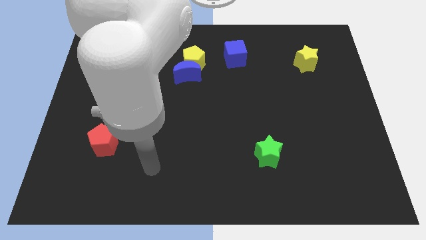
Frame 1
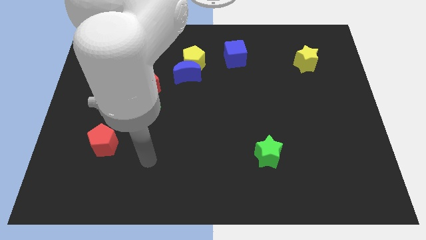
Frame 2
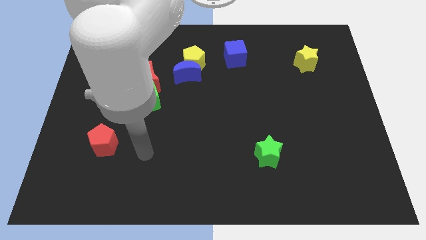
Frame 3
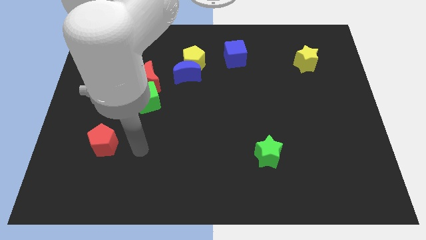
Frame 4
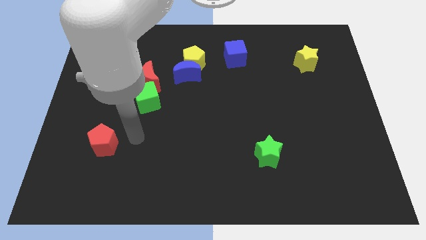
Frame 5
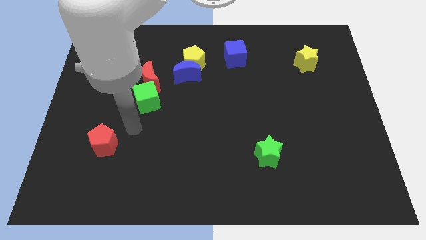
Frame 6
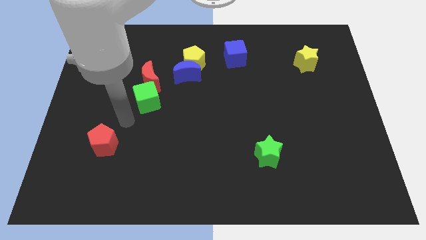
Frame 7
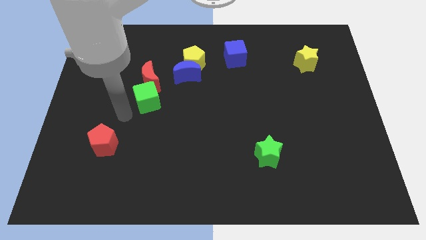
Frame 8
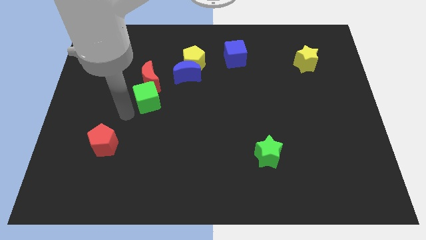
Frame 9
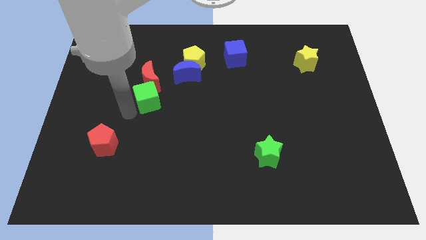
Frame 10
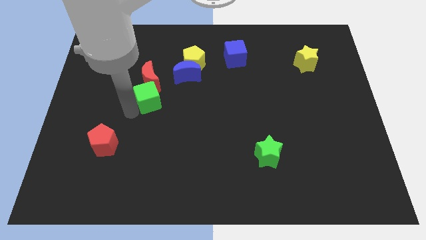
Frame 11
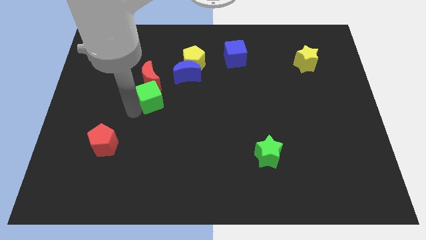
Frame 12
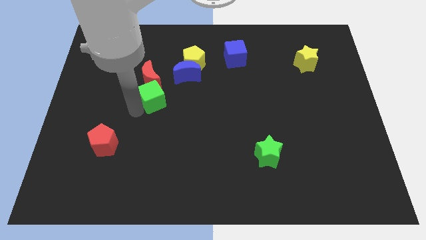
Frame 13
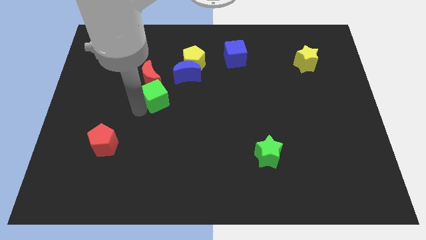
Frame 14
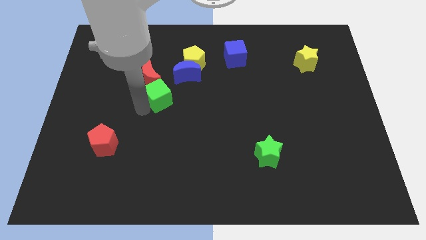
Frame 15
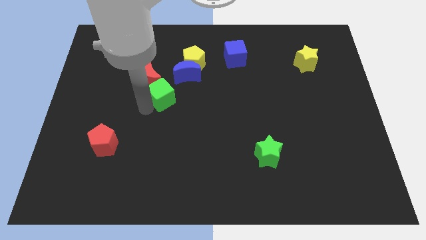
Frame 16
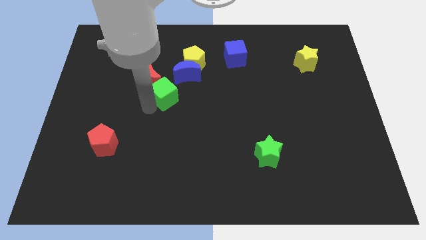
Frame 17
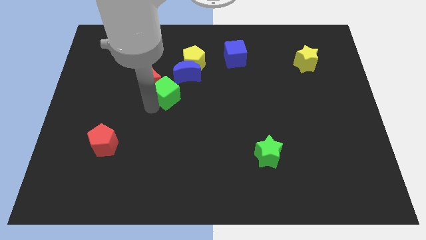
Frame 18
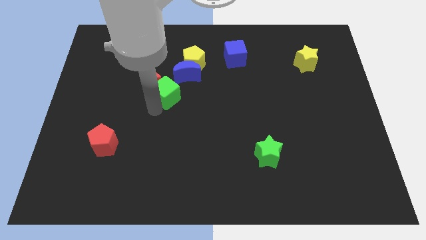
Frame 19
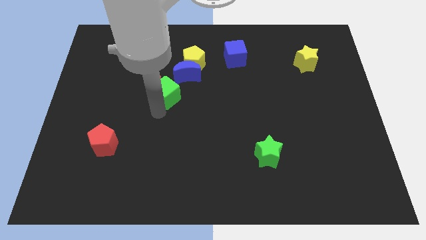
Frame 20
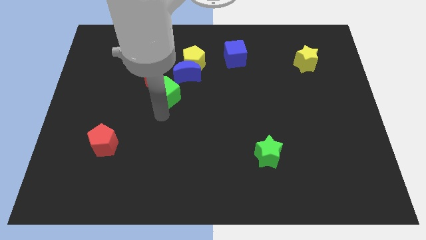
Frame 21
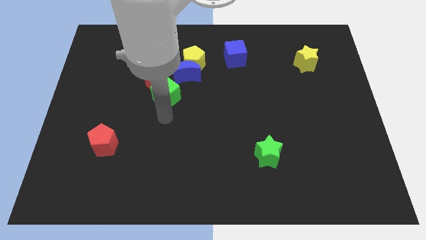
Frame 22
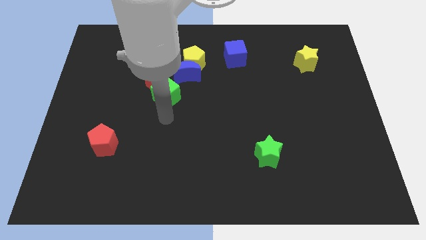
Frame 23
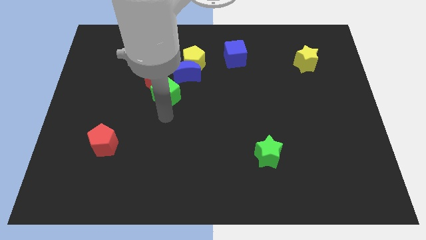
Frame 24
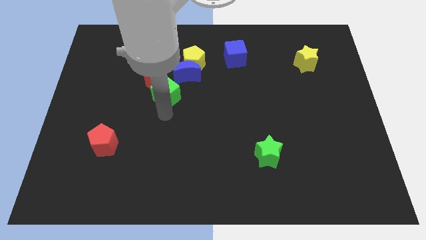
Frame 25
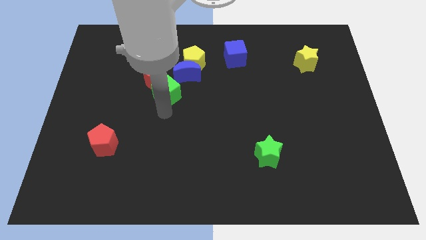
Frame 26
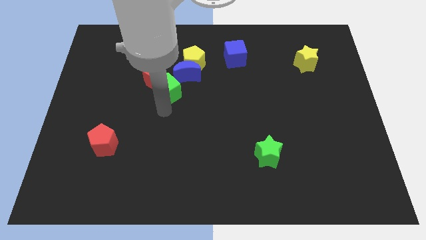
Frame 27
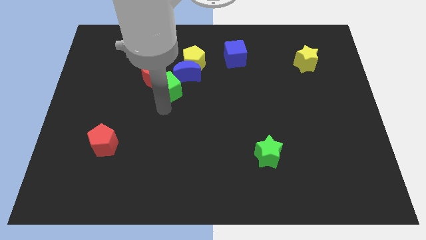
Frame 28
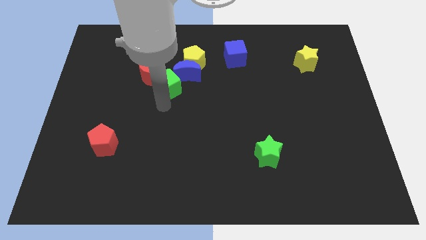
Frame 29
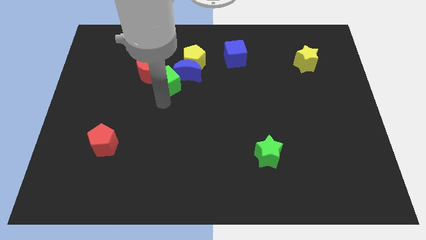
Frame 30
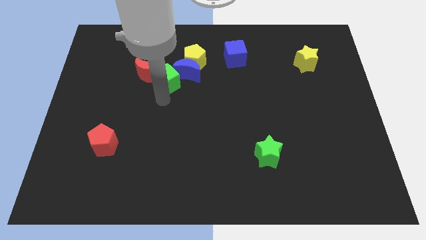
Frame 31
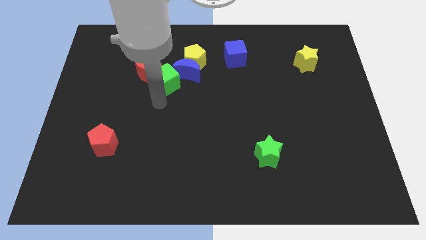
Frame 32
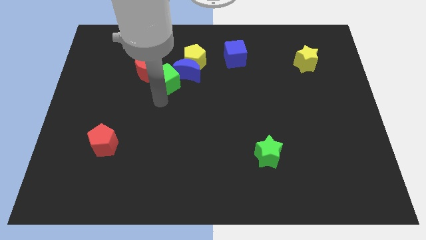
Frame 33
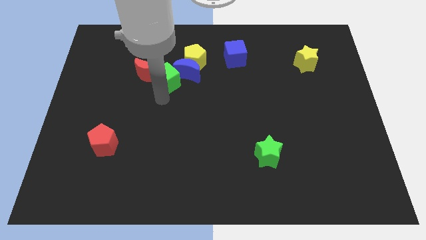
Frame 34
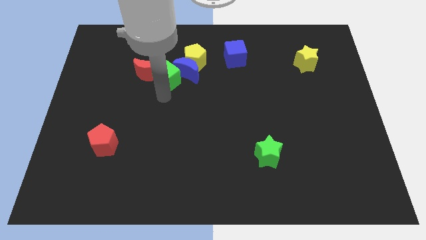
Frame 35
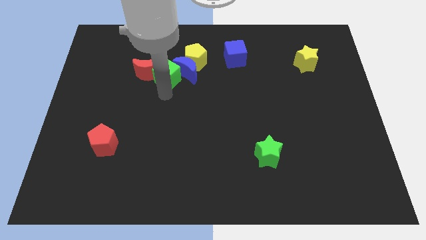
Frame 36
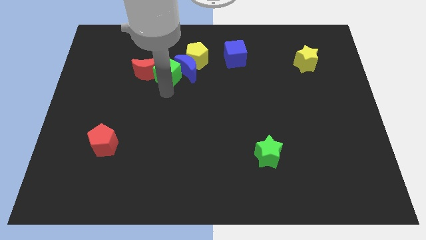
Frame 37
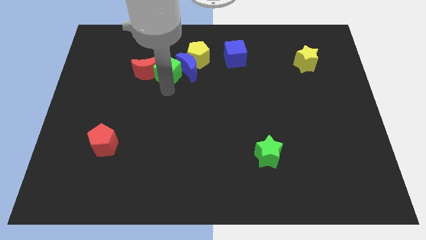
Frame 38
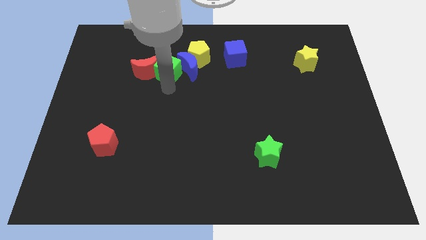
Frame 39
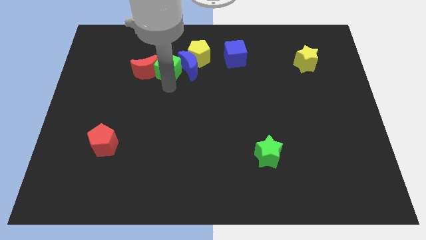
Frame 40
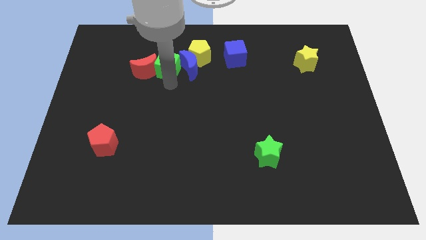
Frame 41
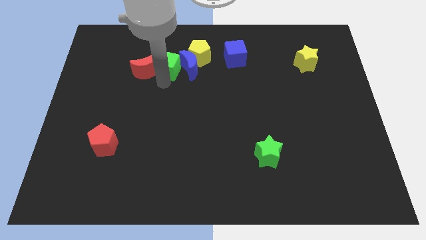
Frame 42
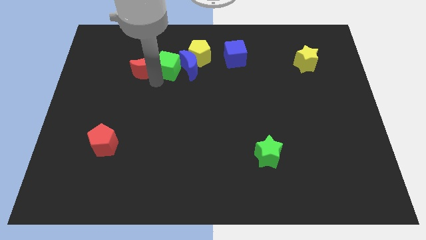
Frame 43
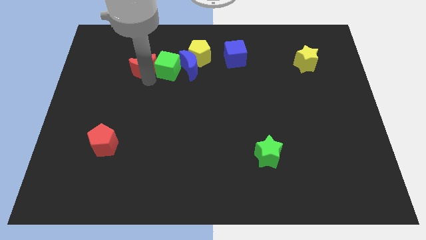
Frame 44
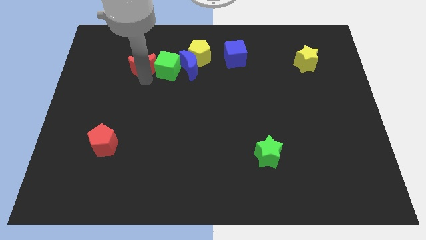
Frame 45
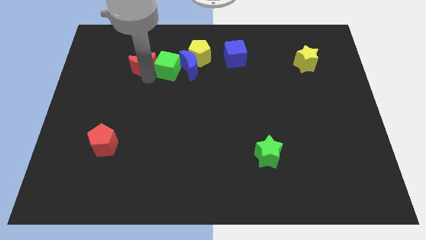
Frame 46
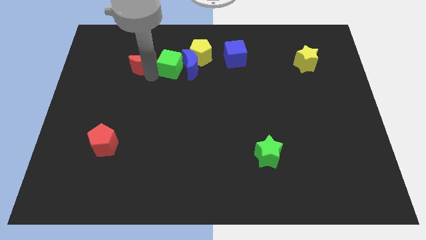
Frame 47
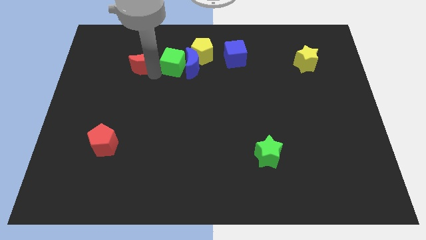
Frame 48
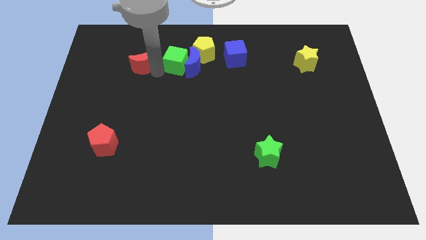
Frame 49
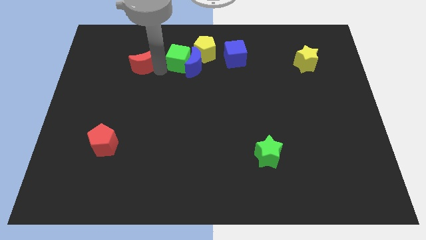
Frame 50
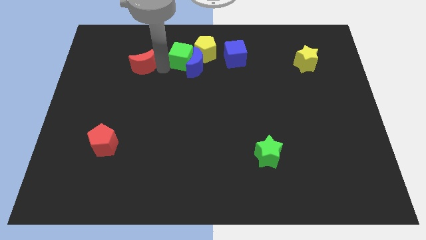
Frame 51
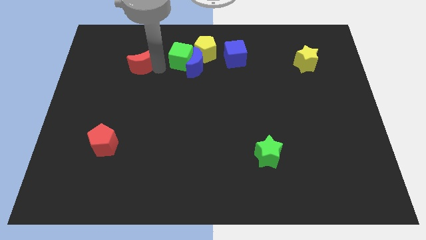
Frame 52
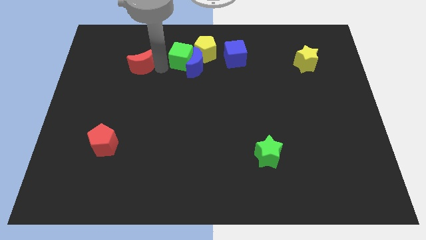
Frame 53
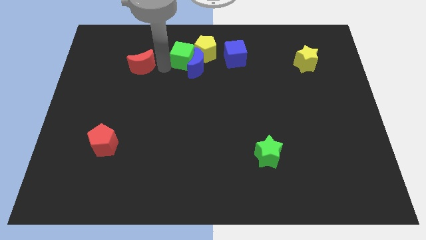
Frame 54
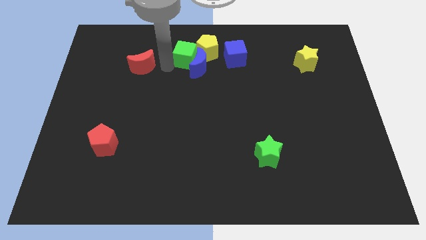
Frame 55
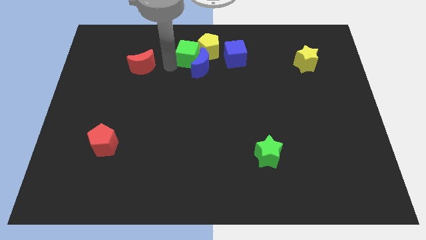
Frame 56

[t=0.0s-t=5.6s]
push the green cube towards the yellow pentagon

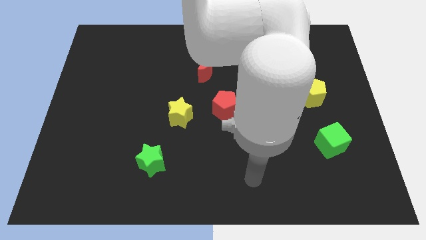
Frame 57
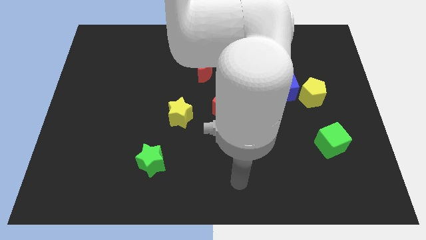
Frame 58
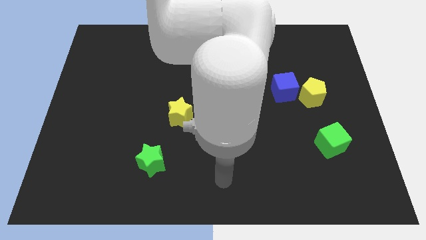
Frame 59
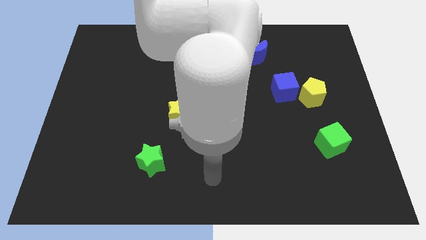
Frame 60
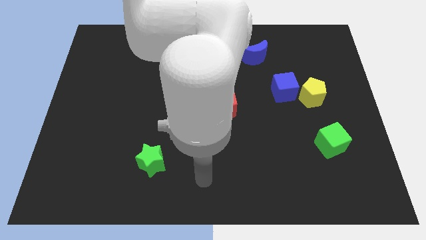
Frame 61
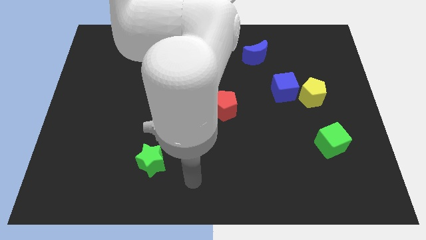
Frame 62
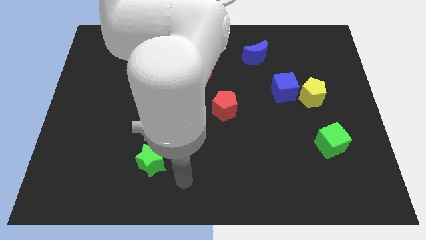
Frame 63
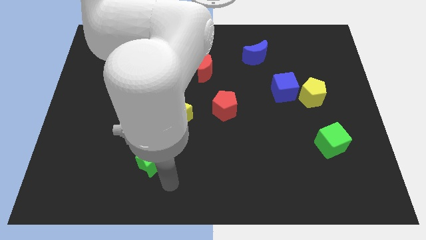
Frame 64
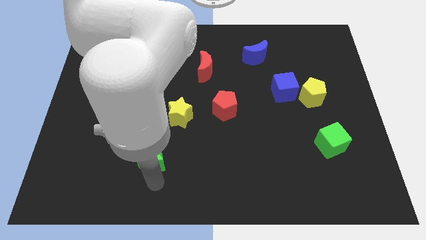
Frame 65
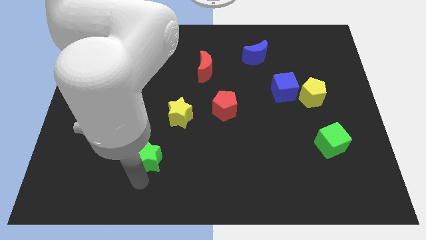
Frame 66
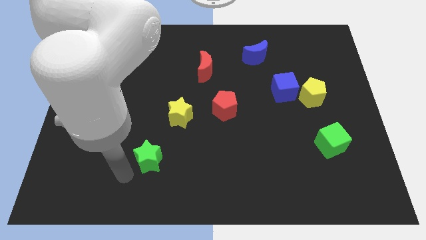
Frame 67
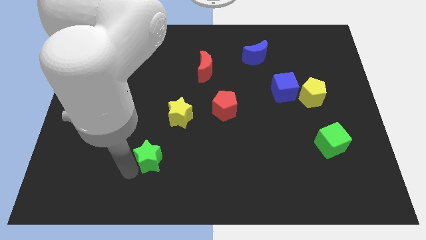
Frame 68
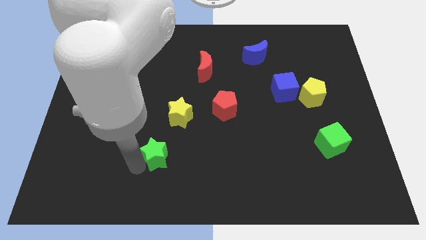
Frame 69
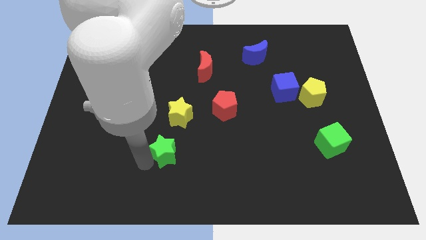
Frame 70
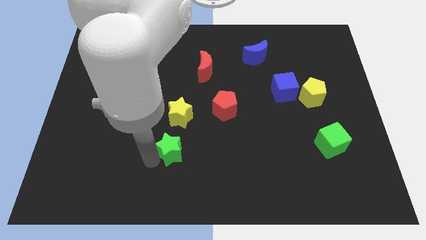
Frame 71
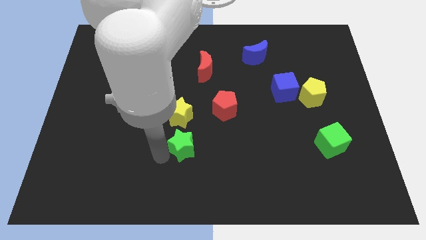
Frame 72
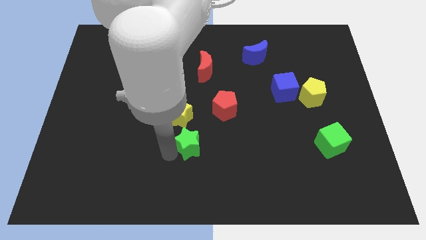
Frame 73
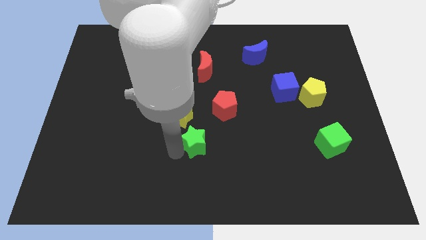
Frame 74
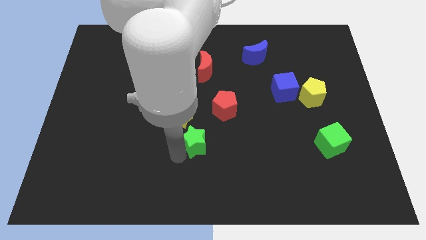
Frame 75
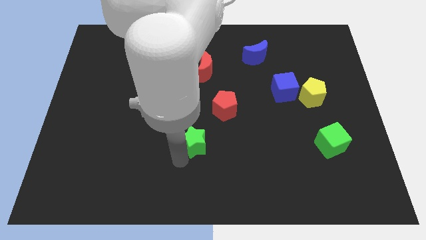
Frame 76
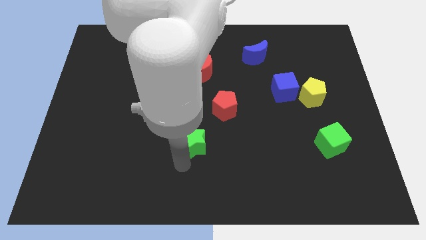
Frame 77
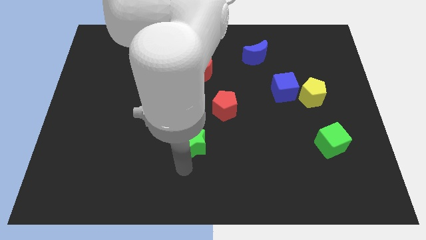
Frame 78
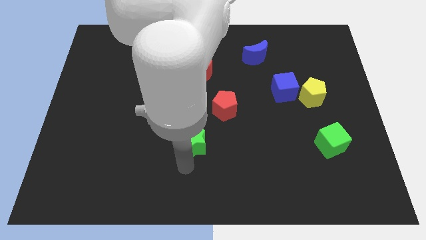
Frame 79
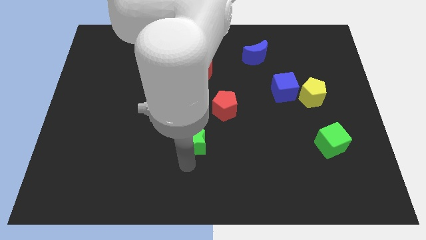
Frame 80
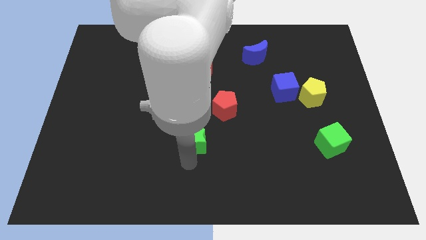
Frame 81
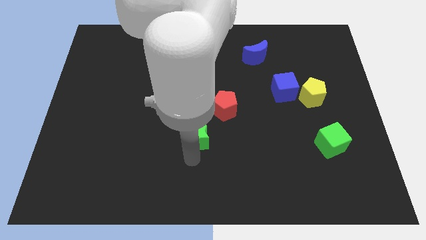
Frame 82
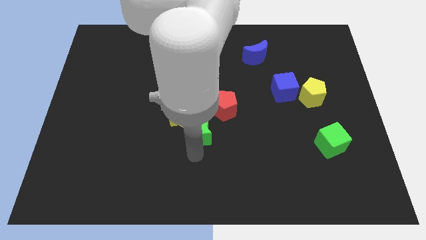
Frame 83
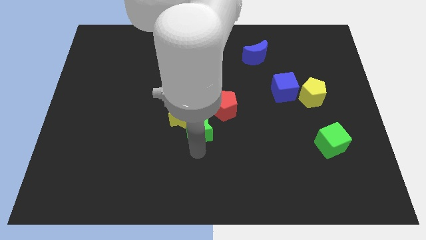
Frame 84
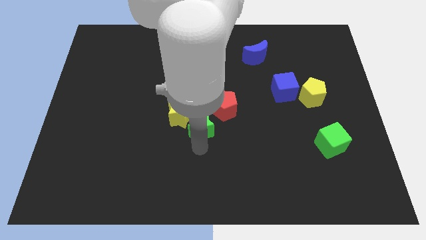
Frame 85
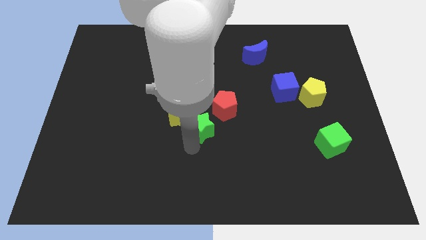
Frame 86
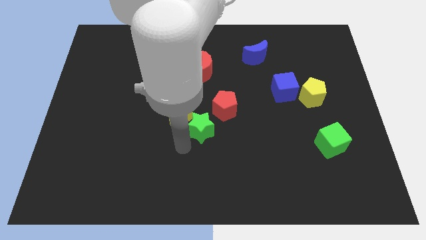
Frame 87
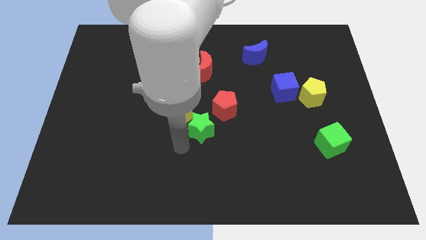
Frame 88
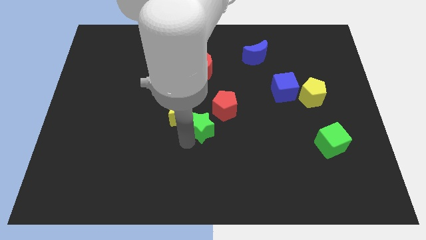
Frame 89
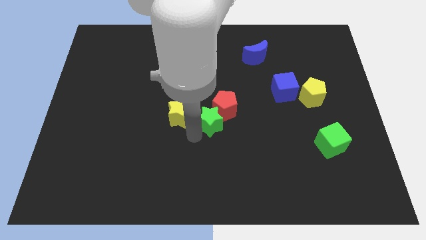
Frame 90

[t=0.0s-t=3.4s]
put the green star next to the red pentagon
